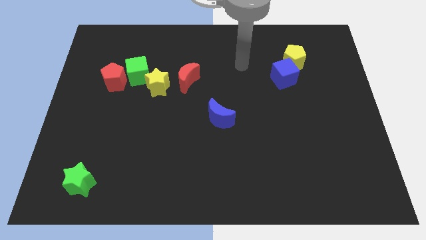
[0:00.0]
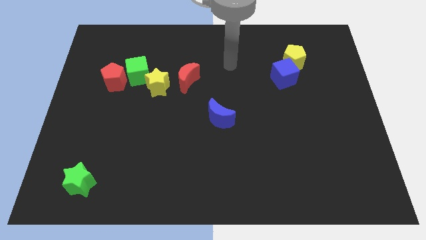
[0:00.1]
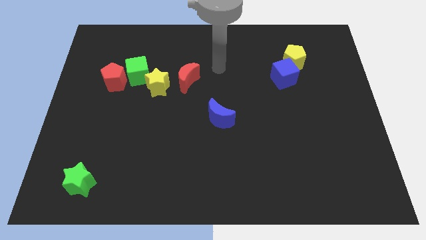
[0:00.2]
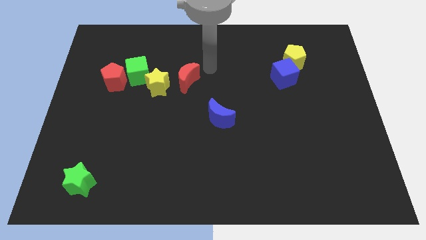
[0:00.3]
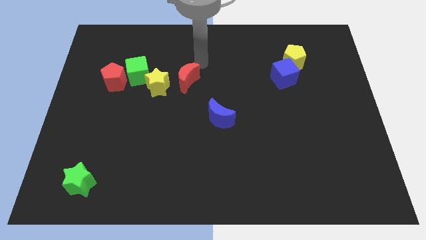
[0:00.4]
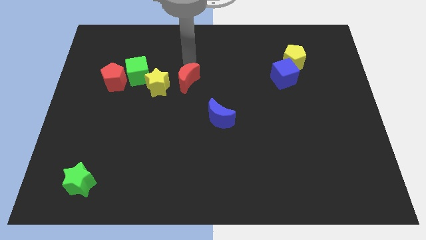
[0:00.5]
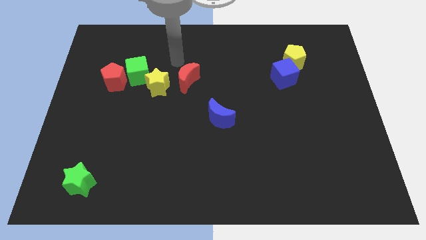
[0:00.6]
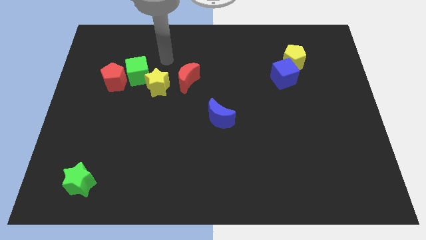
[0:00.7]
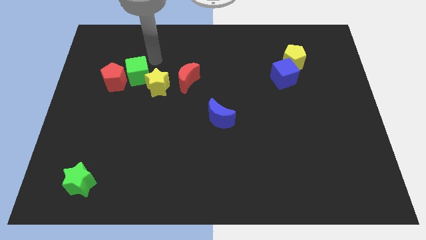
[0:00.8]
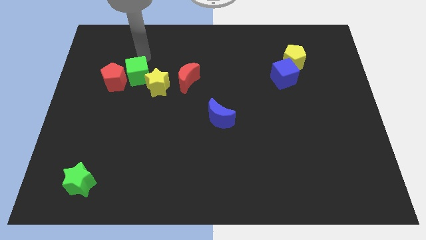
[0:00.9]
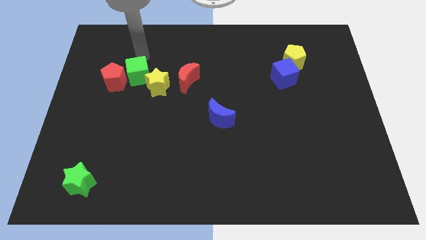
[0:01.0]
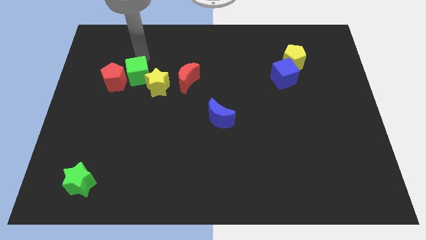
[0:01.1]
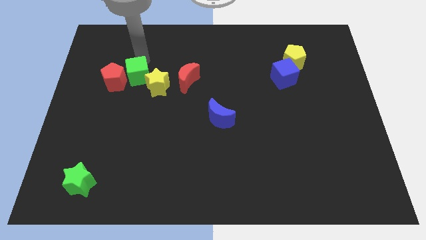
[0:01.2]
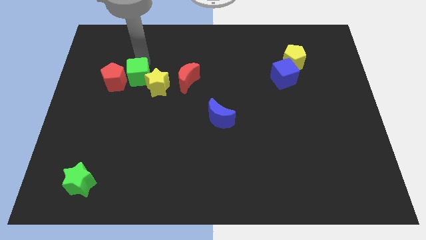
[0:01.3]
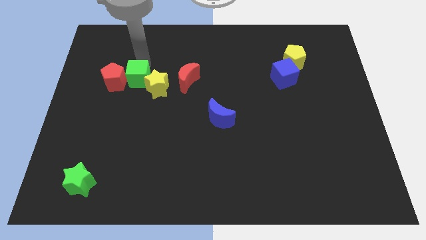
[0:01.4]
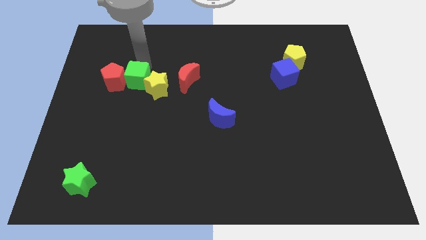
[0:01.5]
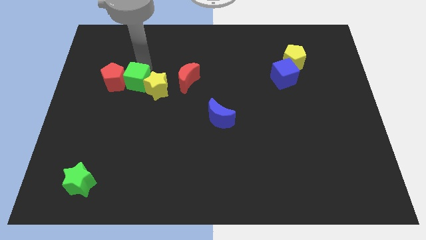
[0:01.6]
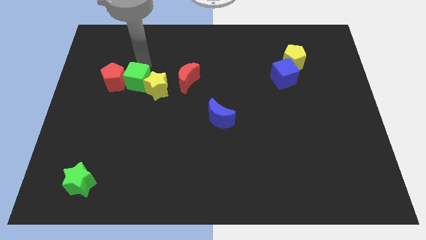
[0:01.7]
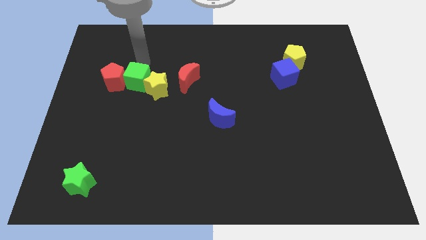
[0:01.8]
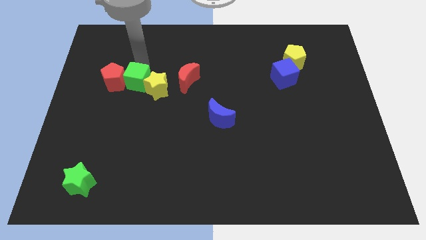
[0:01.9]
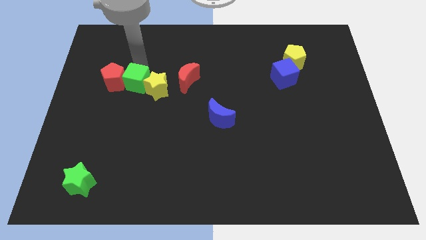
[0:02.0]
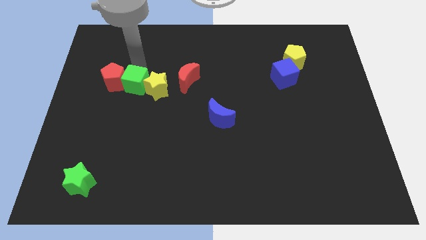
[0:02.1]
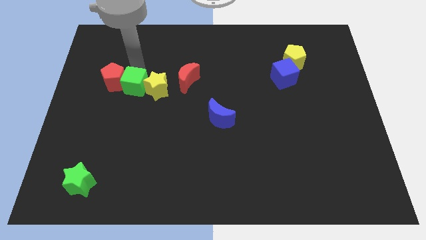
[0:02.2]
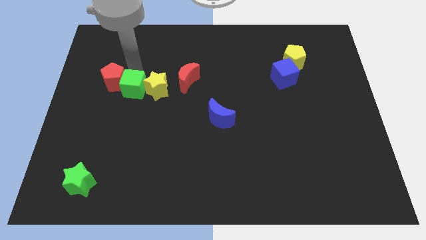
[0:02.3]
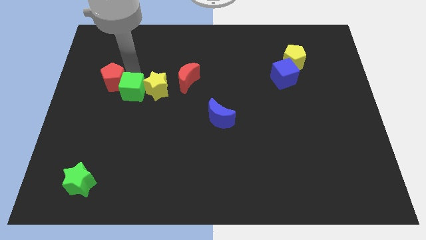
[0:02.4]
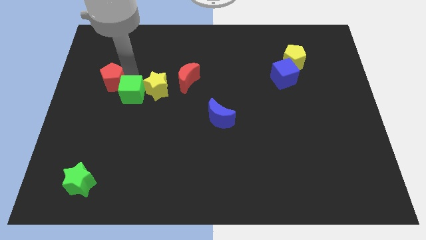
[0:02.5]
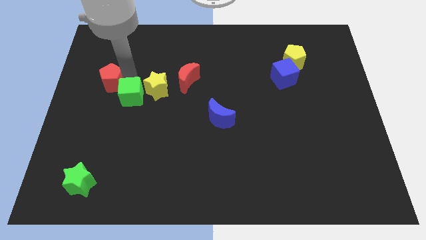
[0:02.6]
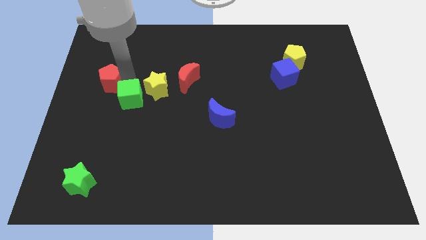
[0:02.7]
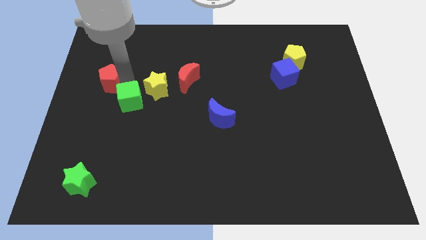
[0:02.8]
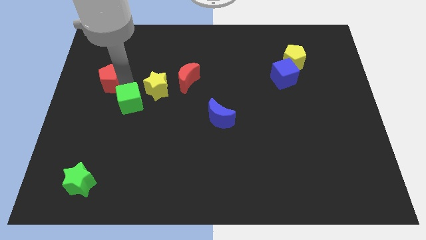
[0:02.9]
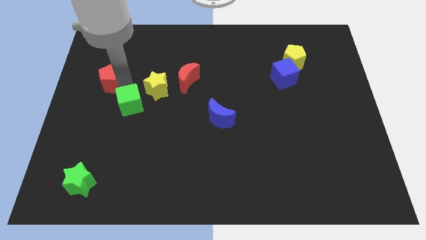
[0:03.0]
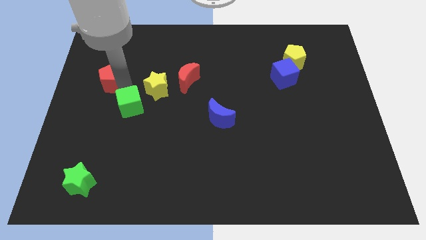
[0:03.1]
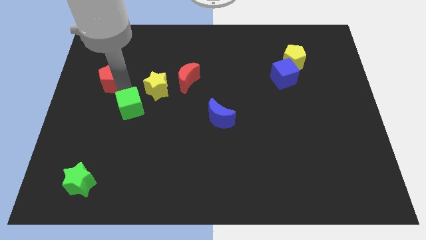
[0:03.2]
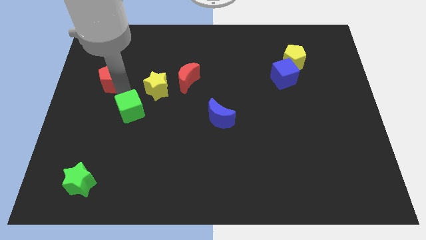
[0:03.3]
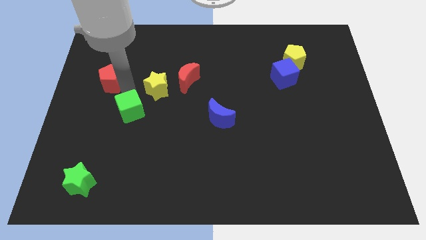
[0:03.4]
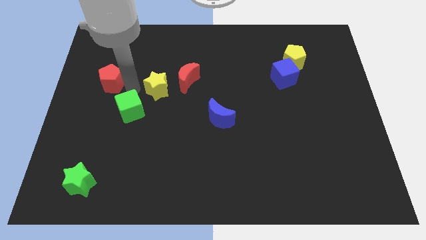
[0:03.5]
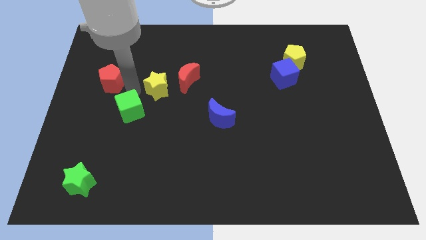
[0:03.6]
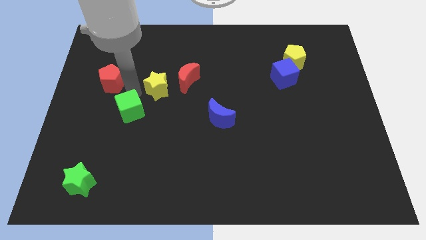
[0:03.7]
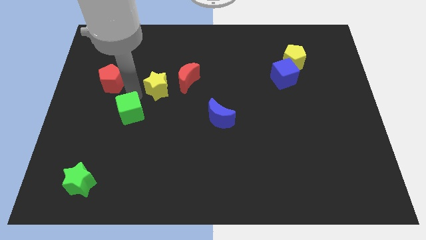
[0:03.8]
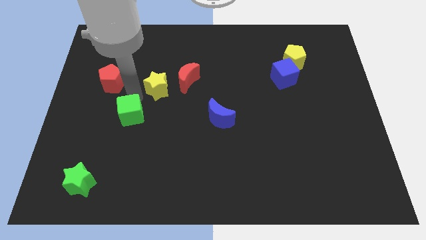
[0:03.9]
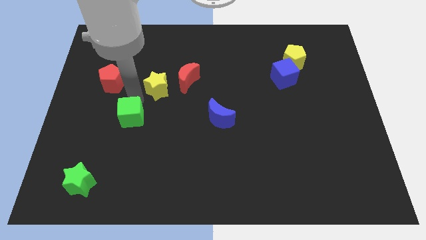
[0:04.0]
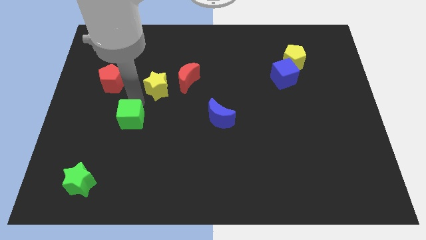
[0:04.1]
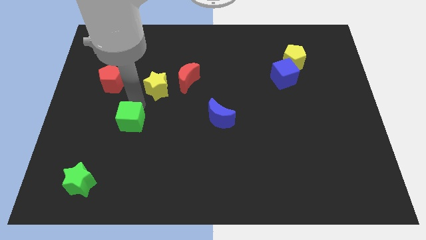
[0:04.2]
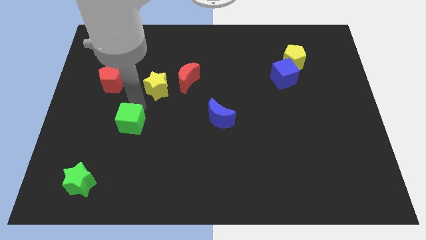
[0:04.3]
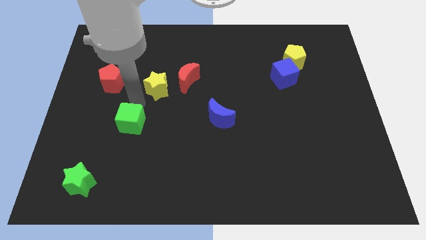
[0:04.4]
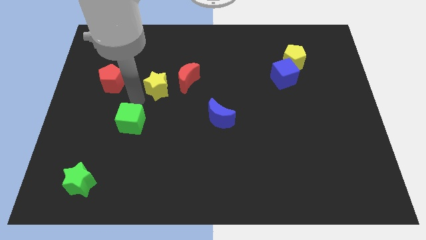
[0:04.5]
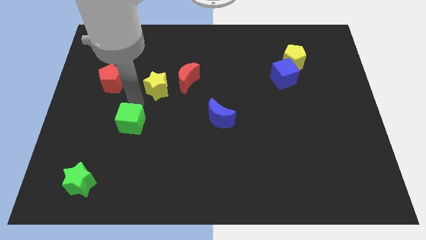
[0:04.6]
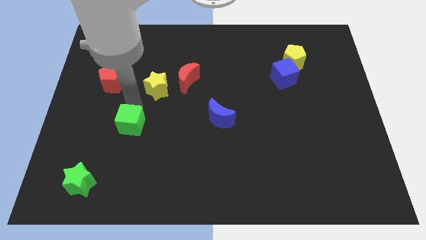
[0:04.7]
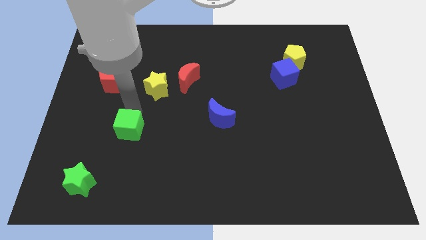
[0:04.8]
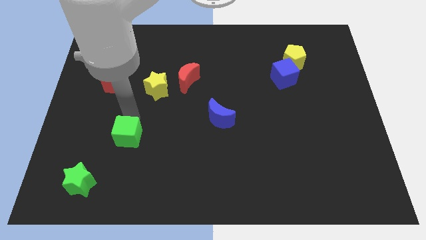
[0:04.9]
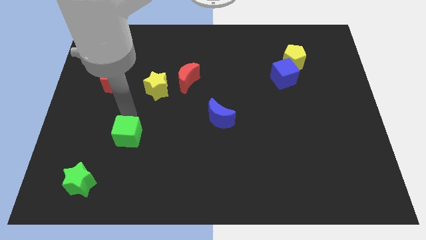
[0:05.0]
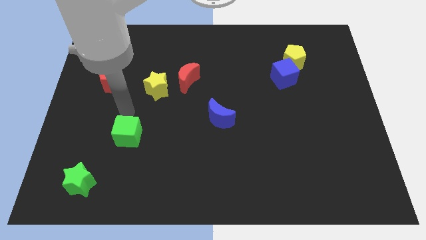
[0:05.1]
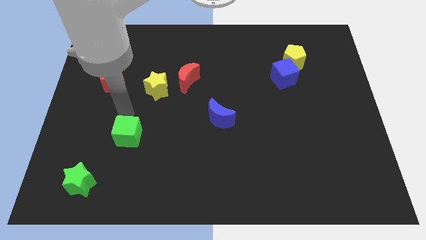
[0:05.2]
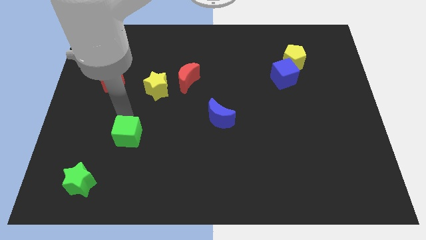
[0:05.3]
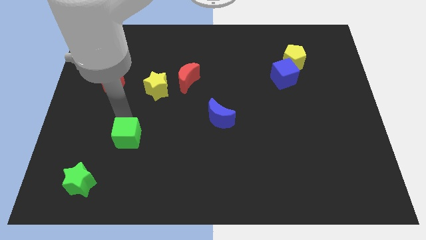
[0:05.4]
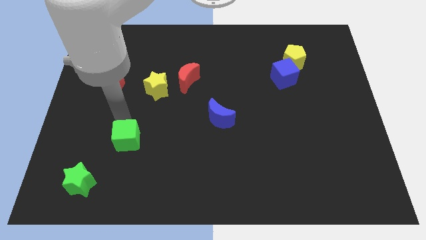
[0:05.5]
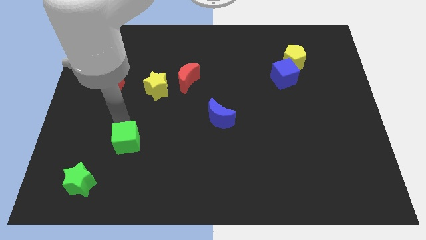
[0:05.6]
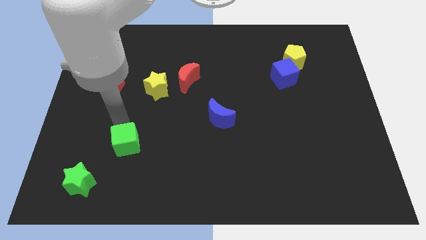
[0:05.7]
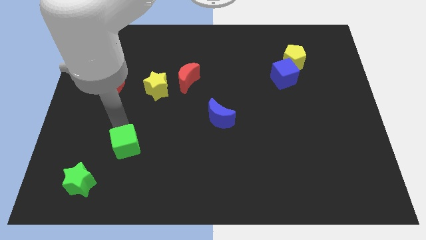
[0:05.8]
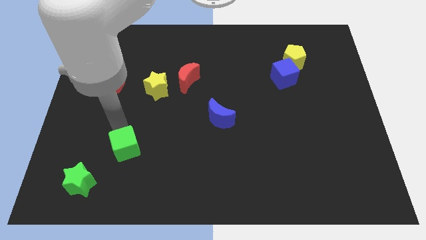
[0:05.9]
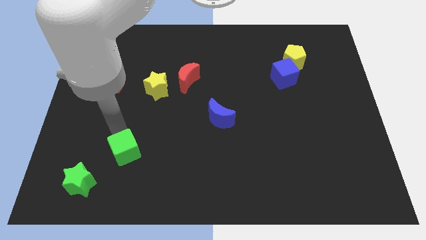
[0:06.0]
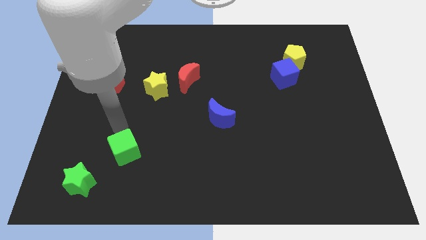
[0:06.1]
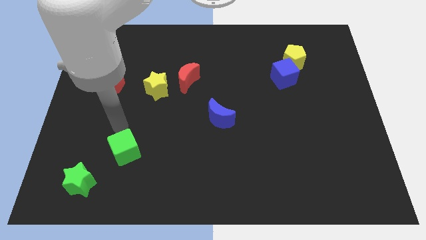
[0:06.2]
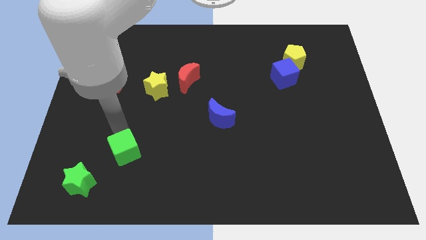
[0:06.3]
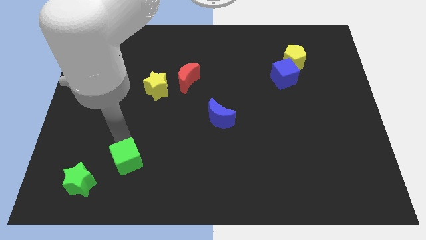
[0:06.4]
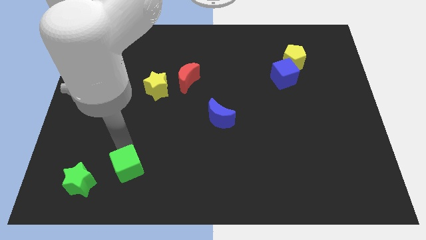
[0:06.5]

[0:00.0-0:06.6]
slide the green cube to the right of the green star
